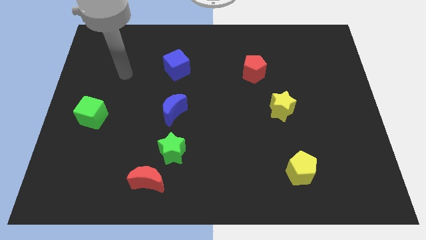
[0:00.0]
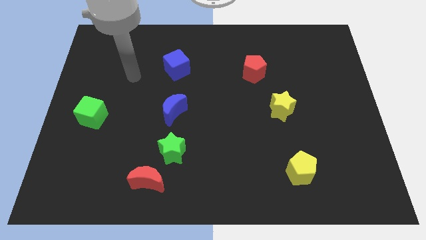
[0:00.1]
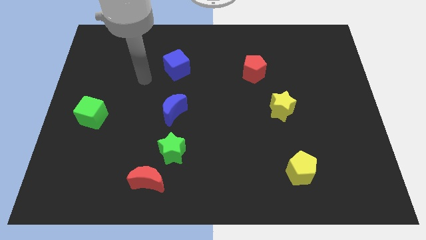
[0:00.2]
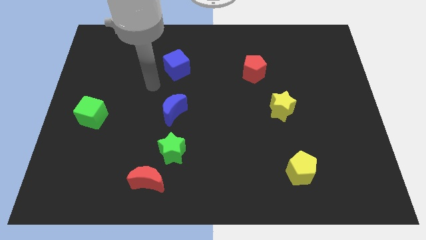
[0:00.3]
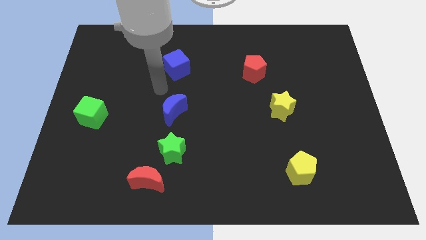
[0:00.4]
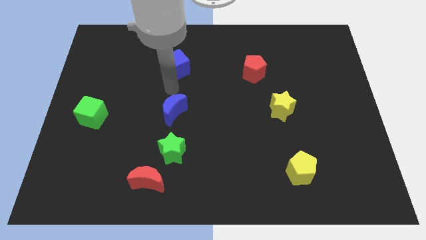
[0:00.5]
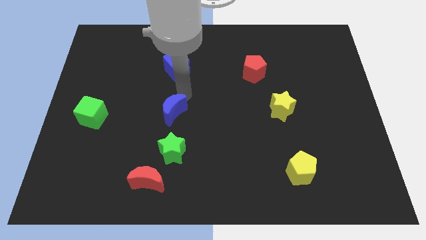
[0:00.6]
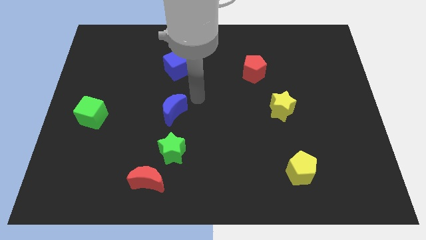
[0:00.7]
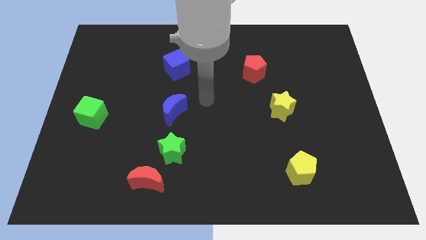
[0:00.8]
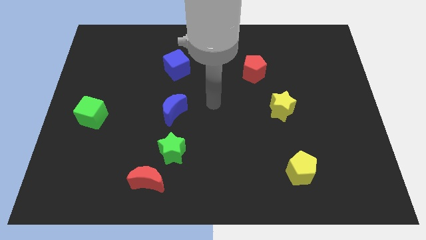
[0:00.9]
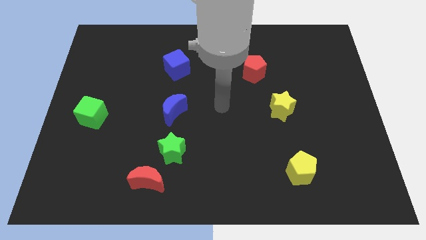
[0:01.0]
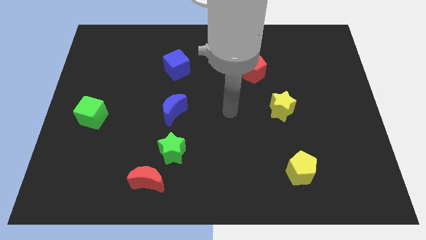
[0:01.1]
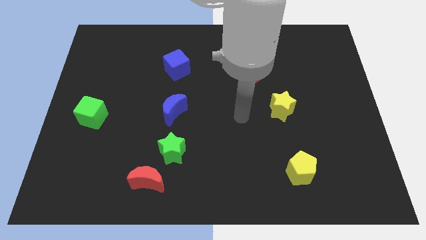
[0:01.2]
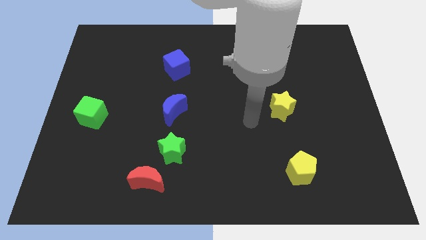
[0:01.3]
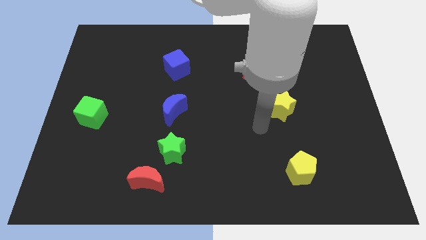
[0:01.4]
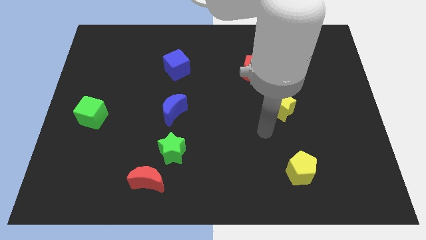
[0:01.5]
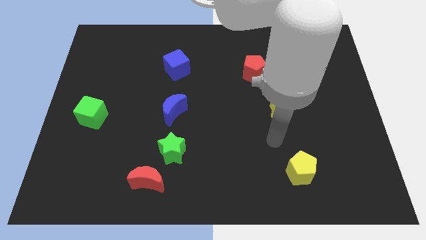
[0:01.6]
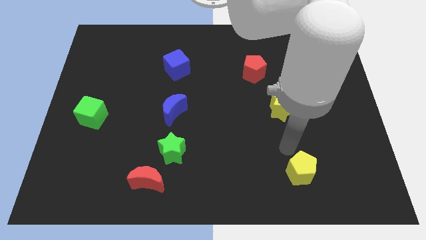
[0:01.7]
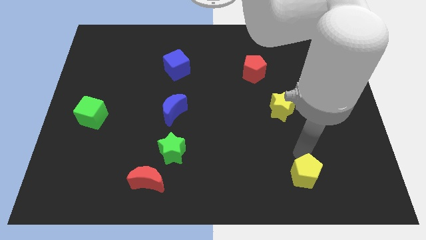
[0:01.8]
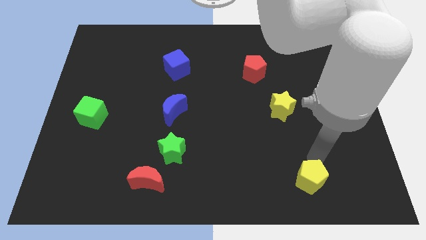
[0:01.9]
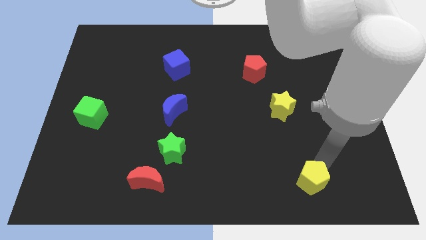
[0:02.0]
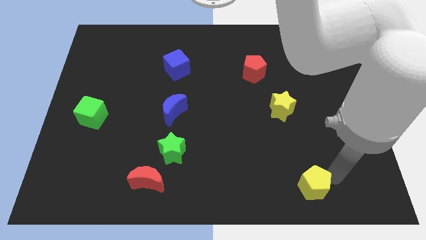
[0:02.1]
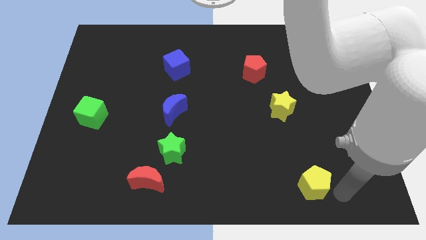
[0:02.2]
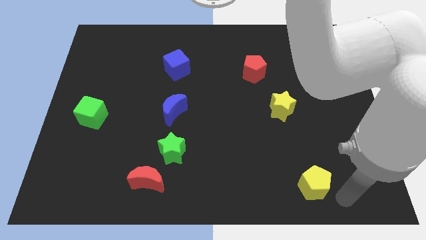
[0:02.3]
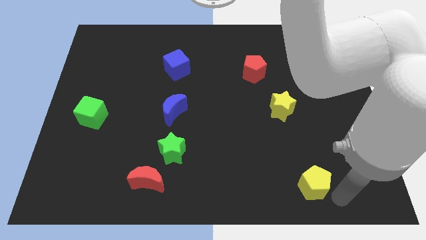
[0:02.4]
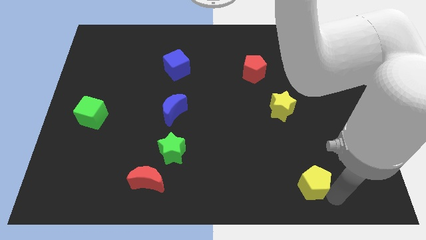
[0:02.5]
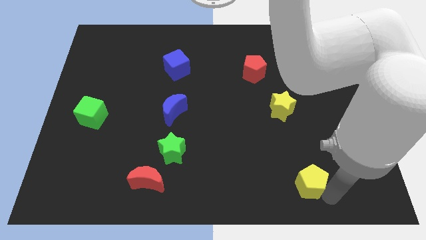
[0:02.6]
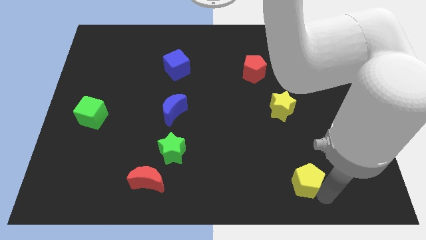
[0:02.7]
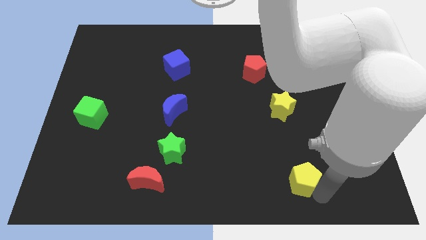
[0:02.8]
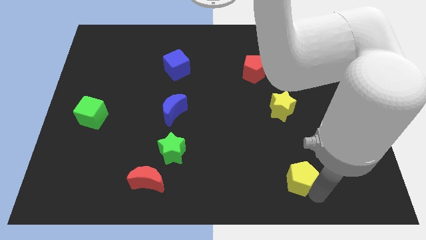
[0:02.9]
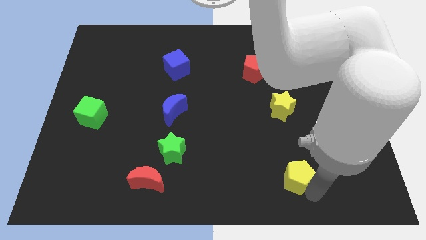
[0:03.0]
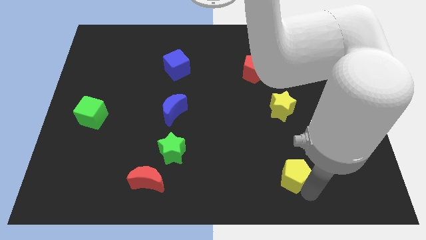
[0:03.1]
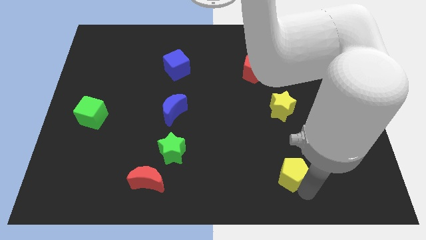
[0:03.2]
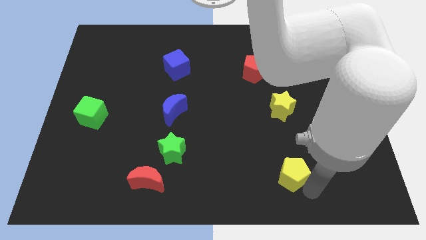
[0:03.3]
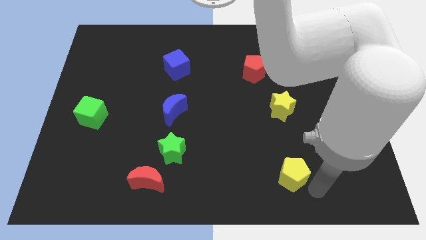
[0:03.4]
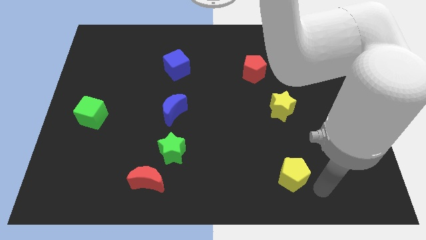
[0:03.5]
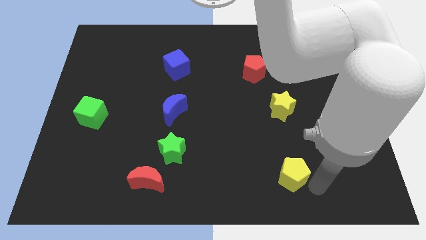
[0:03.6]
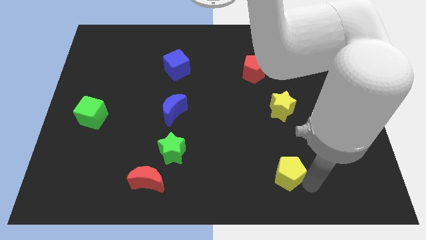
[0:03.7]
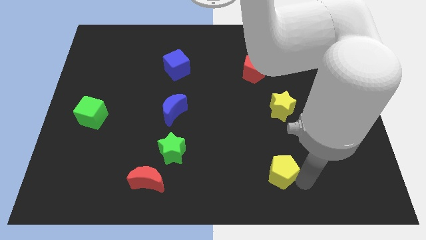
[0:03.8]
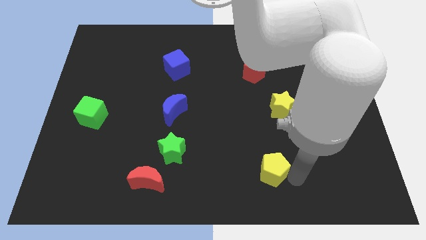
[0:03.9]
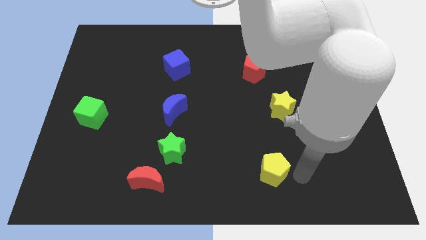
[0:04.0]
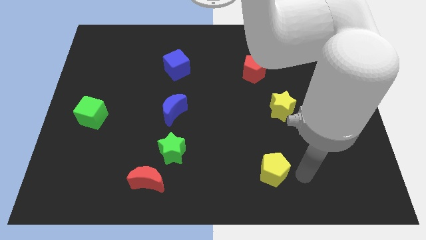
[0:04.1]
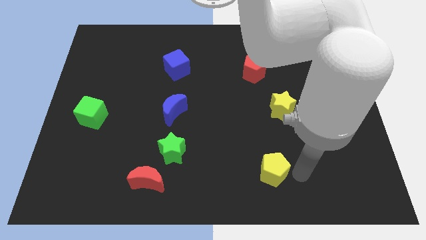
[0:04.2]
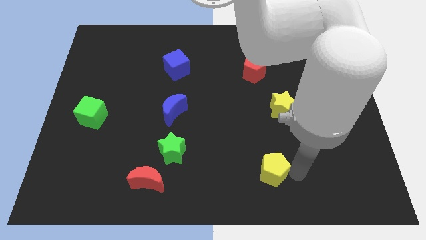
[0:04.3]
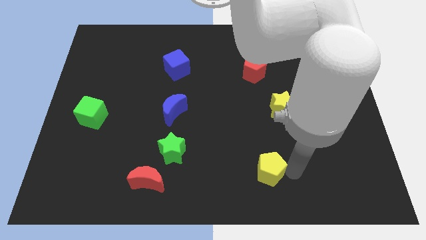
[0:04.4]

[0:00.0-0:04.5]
move the yellow pentagon a bit to the left

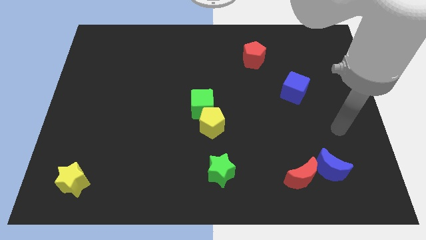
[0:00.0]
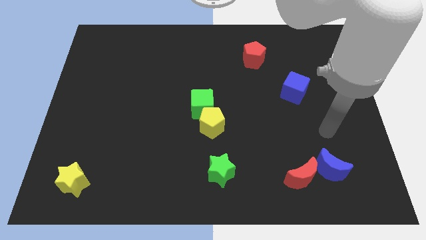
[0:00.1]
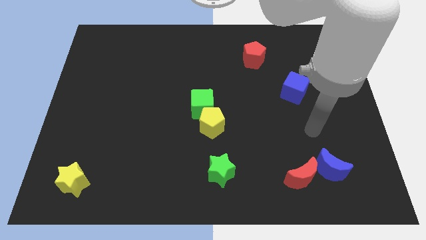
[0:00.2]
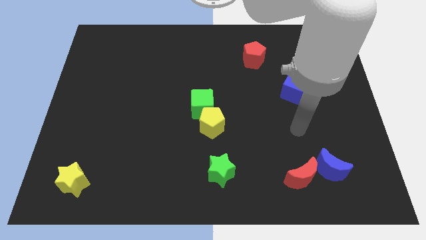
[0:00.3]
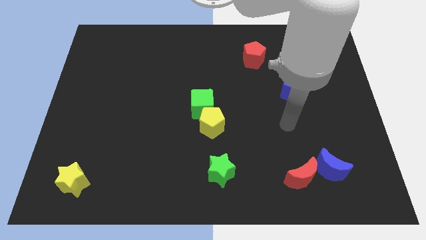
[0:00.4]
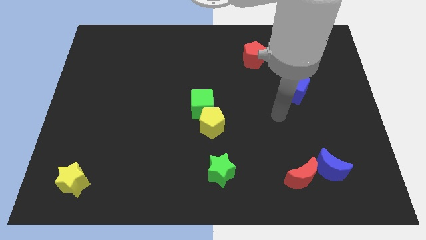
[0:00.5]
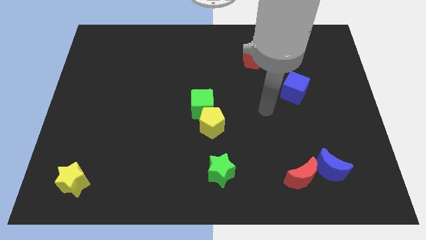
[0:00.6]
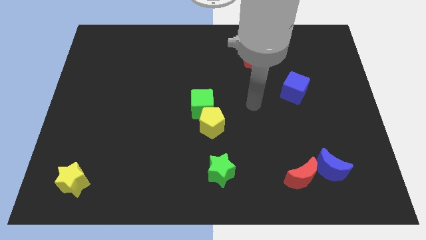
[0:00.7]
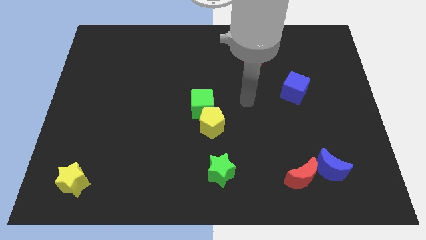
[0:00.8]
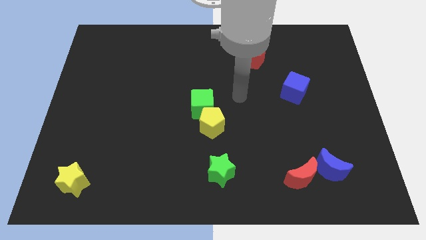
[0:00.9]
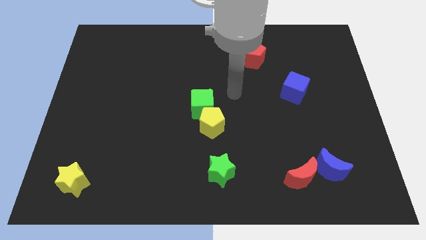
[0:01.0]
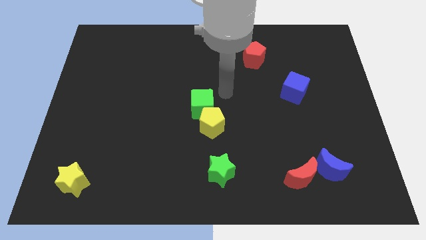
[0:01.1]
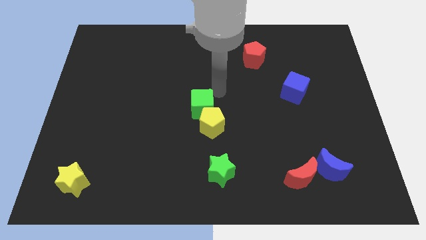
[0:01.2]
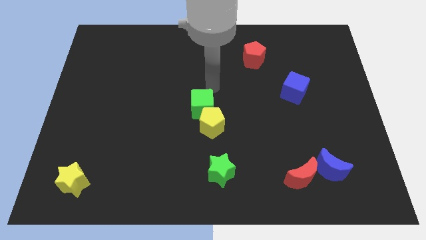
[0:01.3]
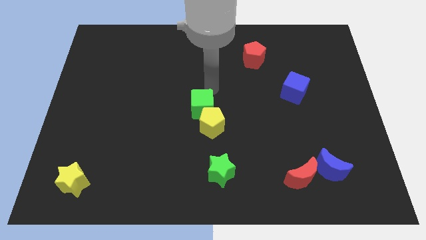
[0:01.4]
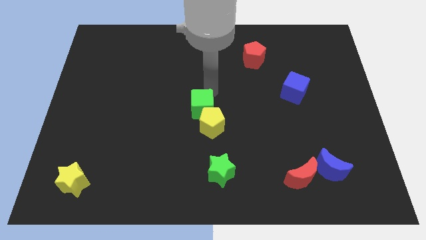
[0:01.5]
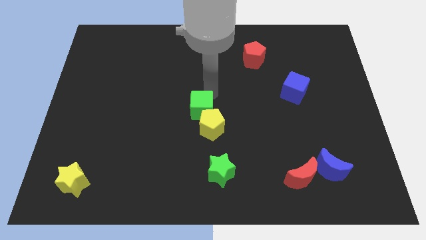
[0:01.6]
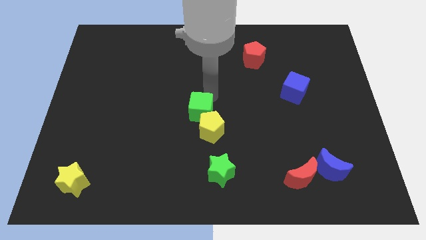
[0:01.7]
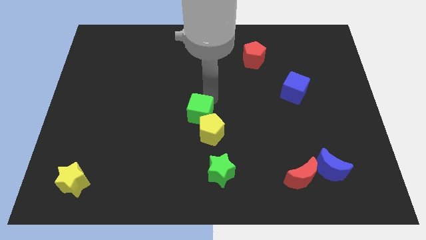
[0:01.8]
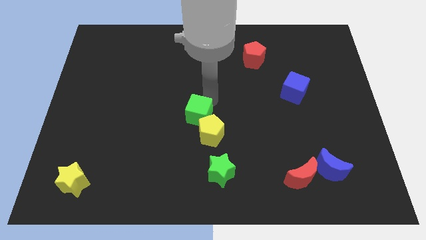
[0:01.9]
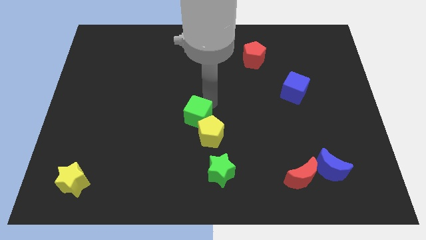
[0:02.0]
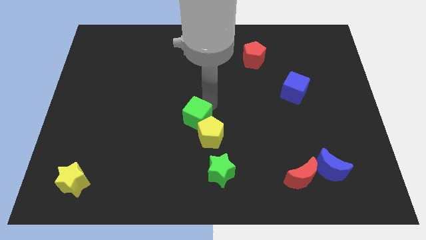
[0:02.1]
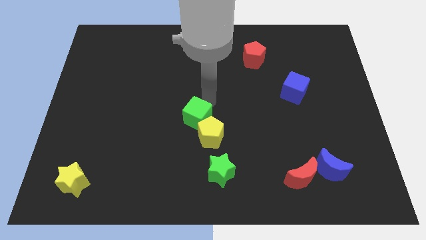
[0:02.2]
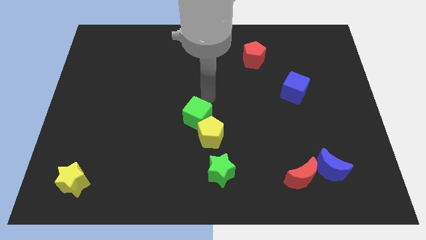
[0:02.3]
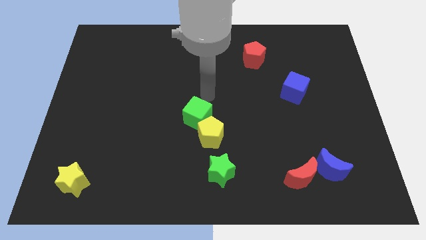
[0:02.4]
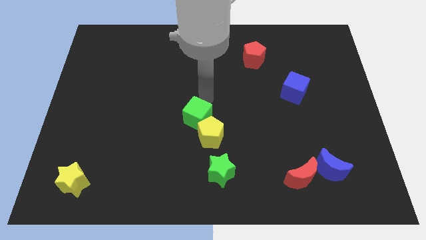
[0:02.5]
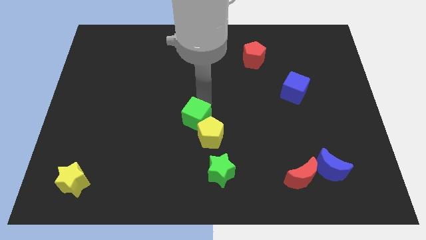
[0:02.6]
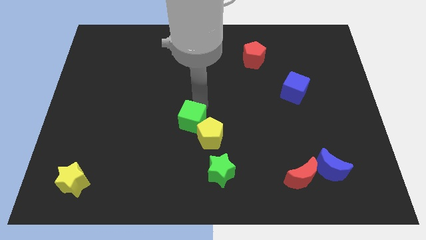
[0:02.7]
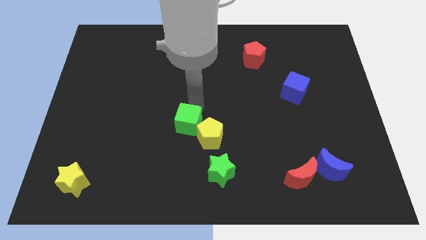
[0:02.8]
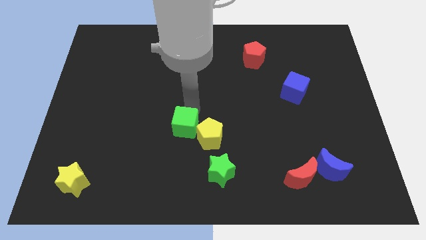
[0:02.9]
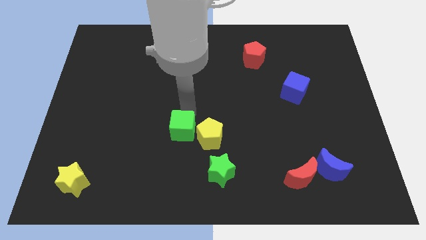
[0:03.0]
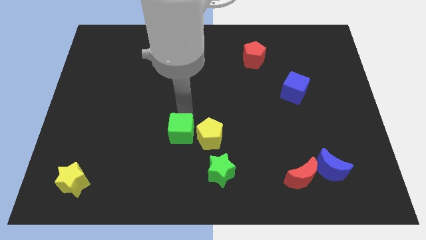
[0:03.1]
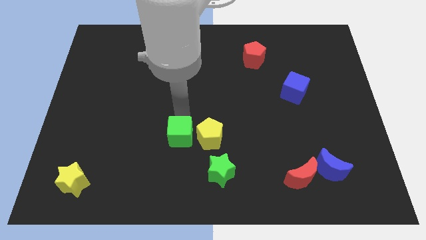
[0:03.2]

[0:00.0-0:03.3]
slightly move the green cube downwards
